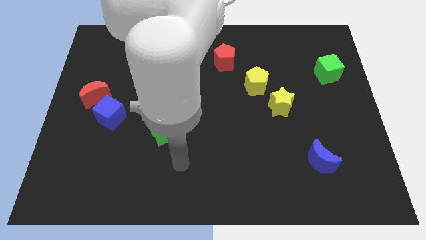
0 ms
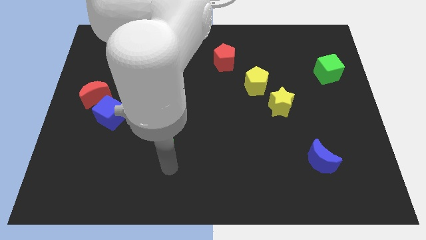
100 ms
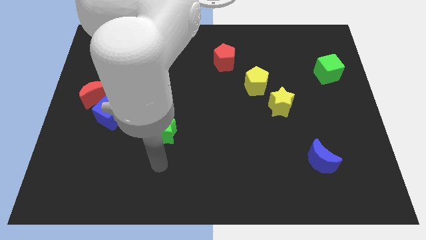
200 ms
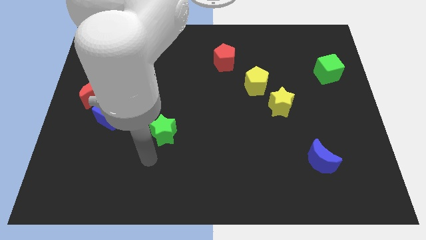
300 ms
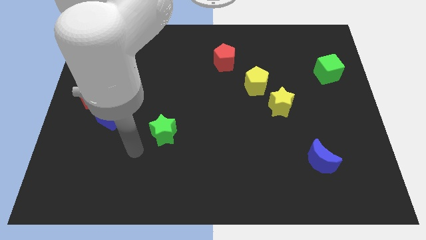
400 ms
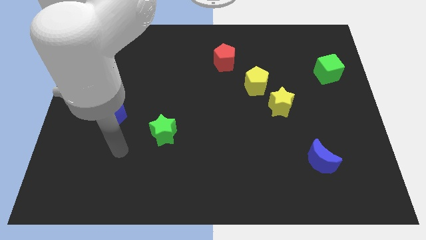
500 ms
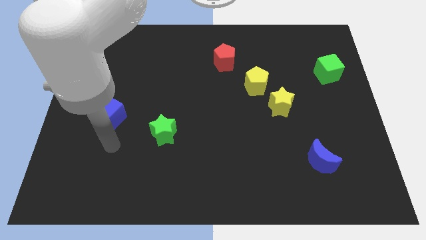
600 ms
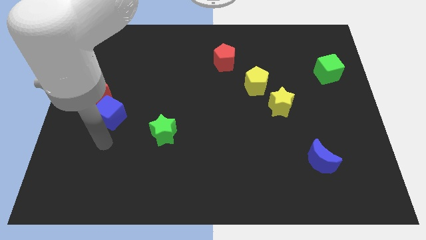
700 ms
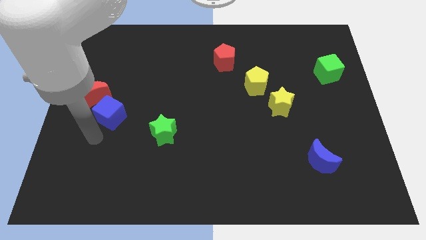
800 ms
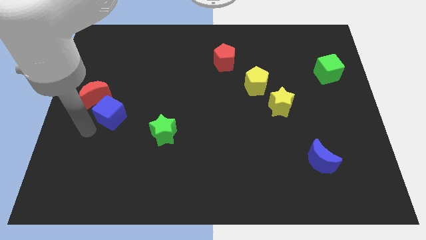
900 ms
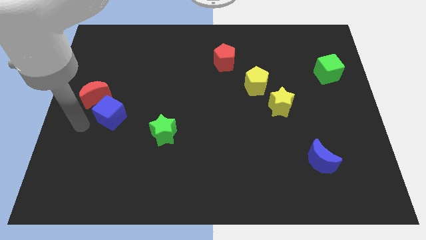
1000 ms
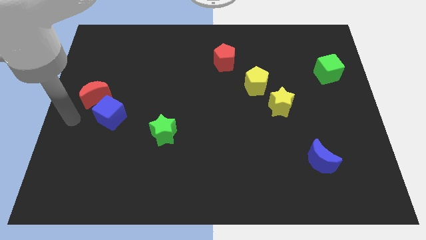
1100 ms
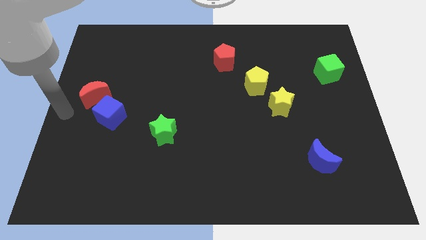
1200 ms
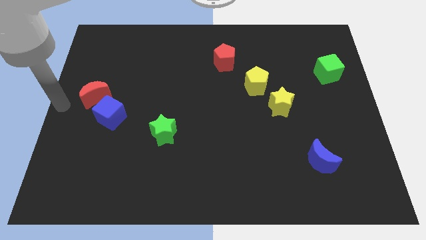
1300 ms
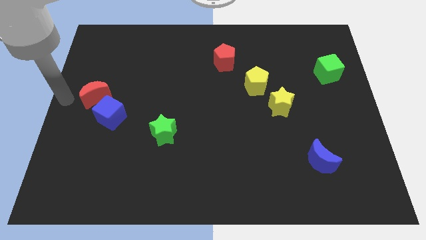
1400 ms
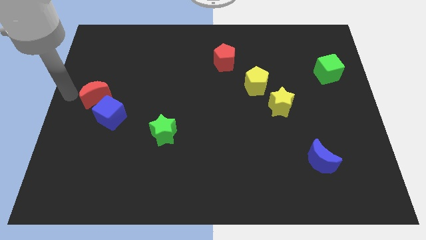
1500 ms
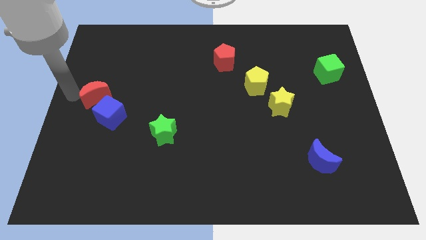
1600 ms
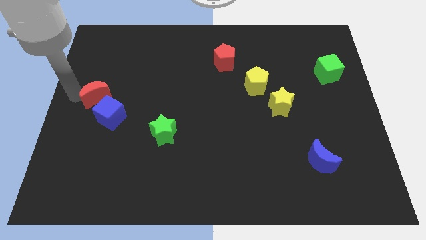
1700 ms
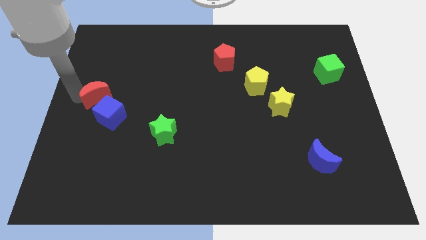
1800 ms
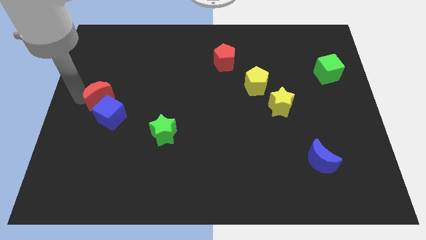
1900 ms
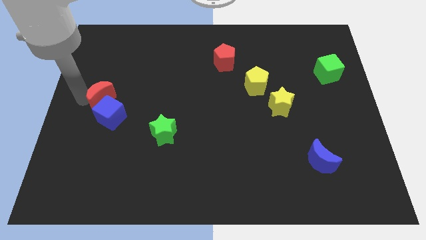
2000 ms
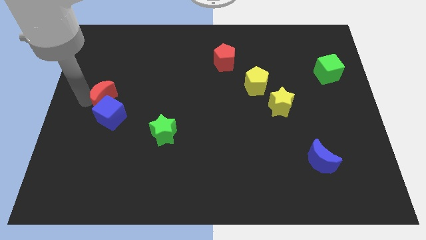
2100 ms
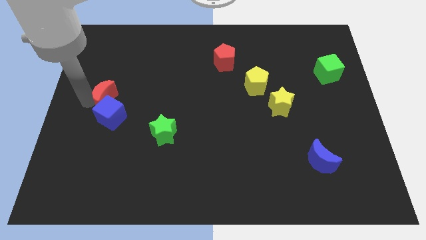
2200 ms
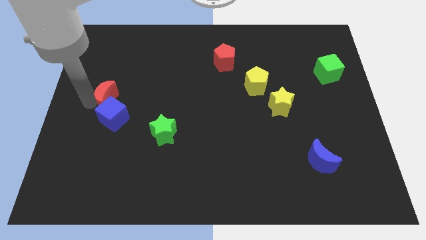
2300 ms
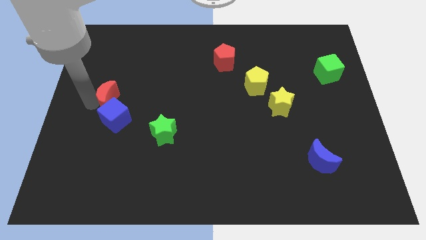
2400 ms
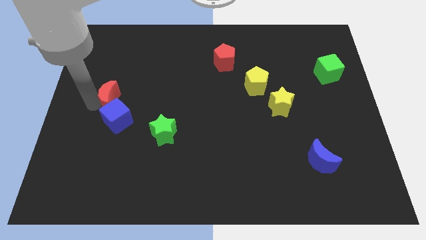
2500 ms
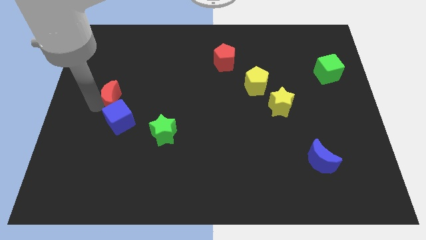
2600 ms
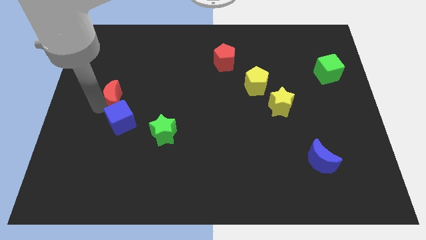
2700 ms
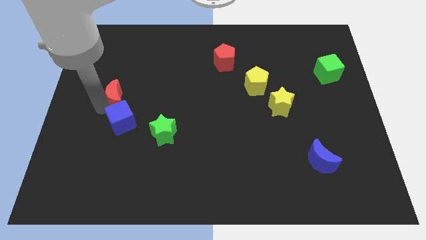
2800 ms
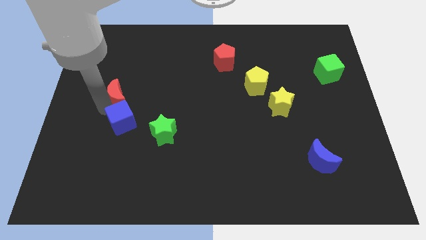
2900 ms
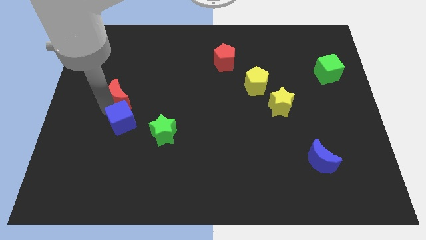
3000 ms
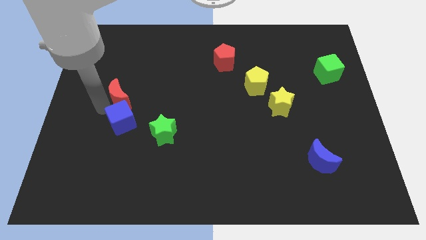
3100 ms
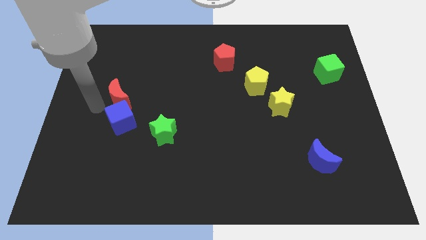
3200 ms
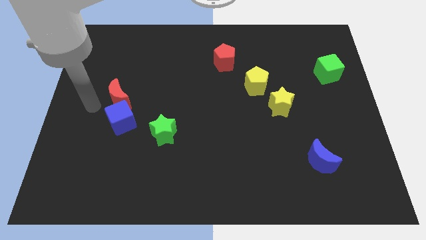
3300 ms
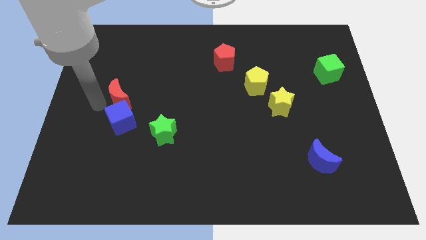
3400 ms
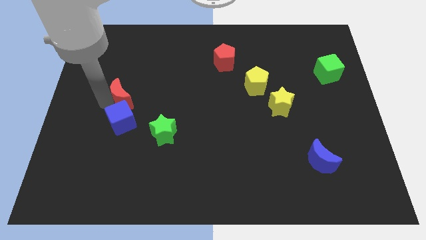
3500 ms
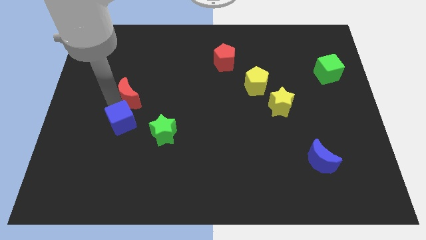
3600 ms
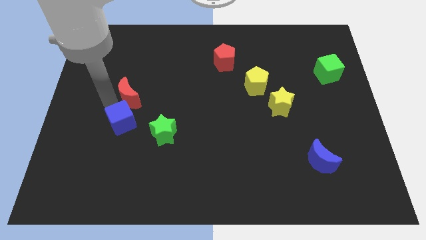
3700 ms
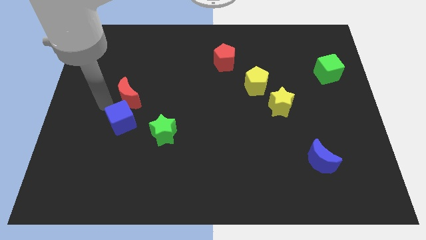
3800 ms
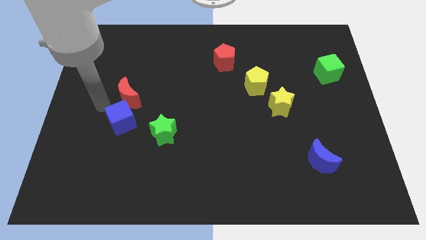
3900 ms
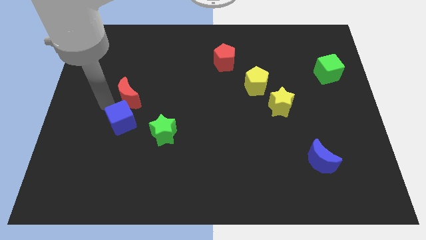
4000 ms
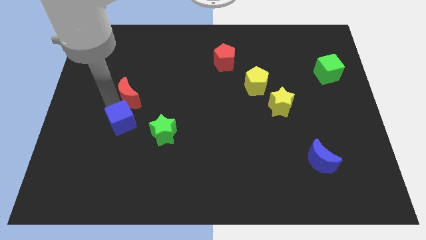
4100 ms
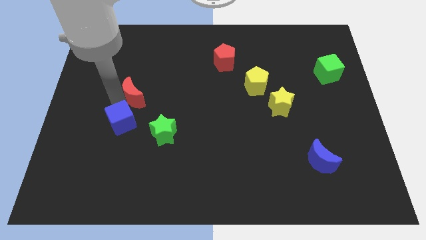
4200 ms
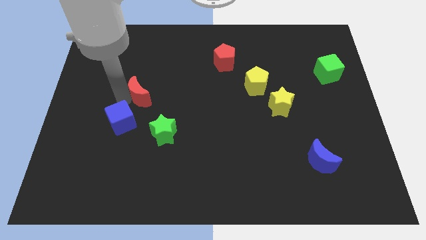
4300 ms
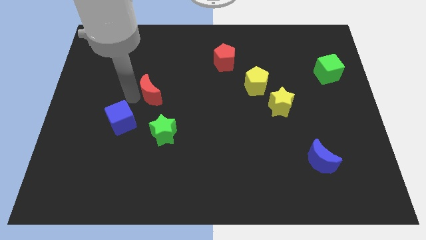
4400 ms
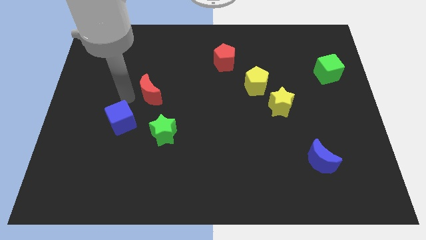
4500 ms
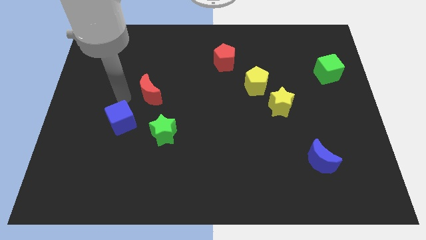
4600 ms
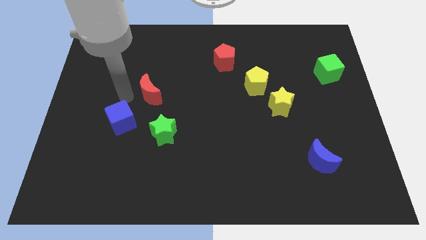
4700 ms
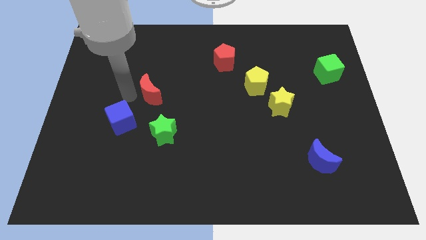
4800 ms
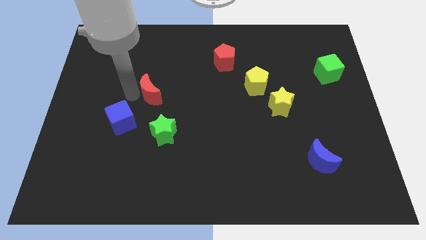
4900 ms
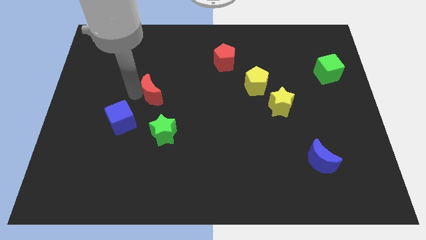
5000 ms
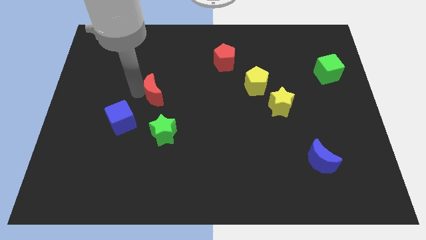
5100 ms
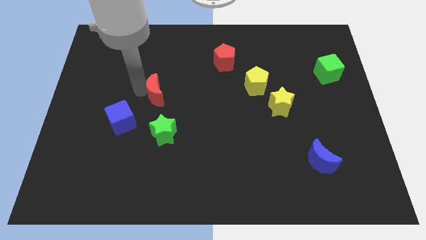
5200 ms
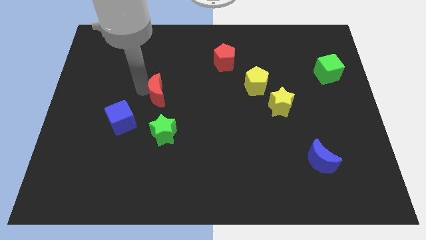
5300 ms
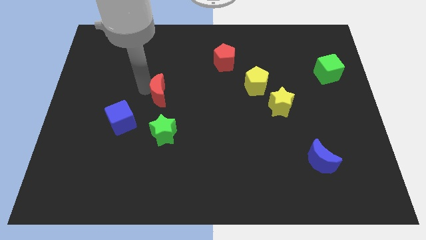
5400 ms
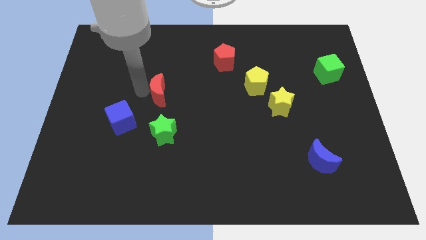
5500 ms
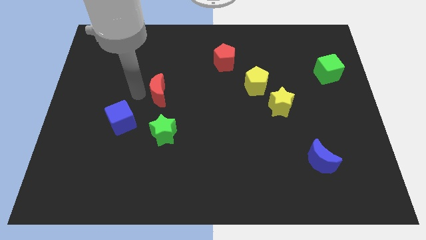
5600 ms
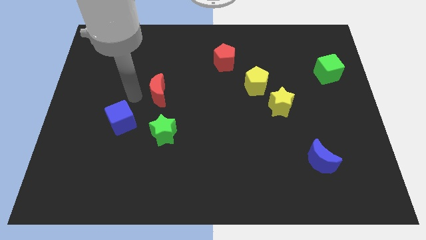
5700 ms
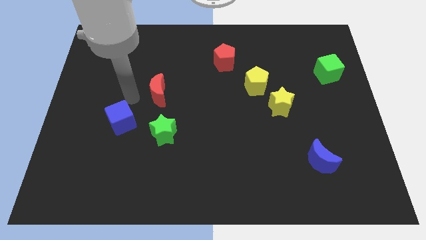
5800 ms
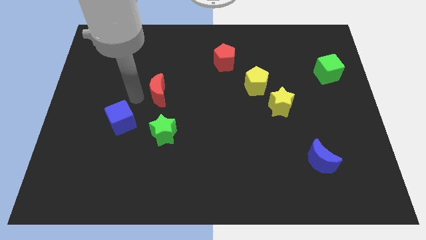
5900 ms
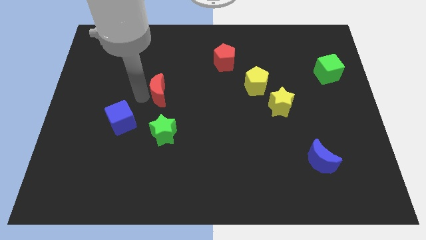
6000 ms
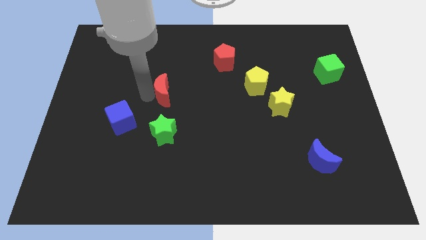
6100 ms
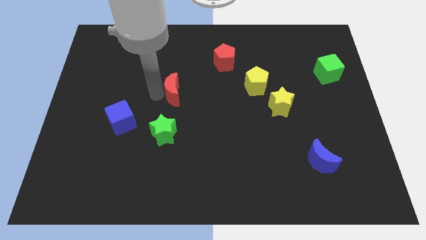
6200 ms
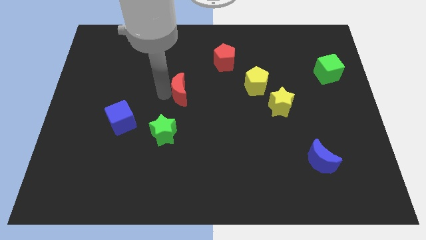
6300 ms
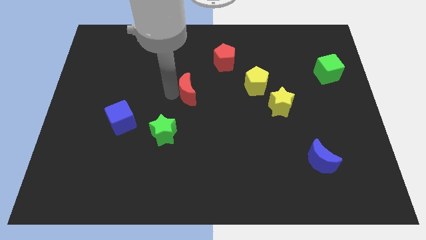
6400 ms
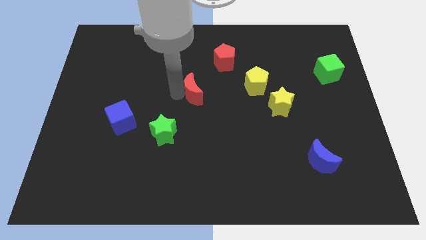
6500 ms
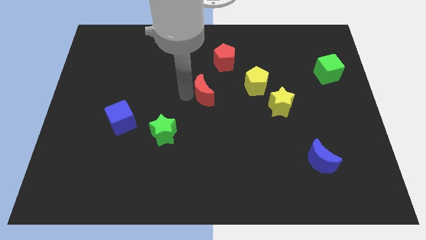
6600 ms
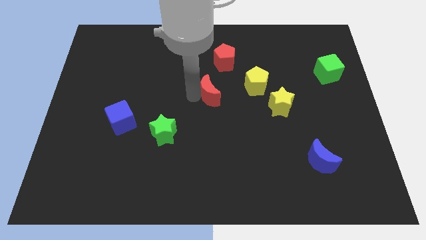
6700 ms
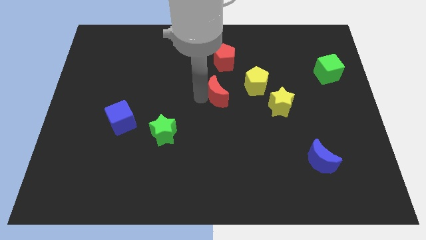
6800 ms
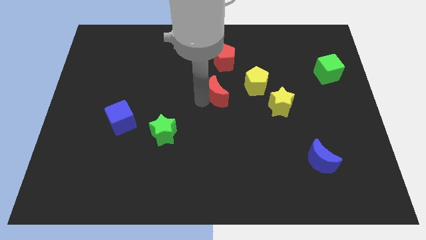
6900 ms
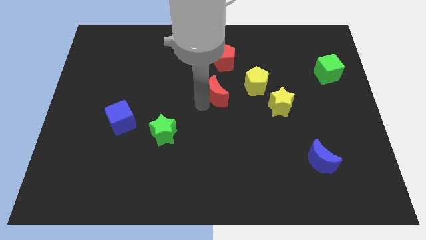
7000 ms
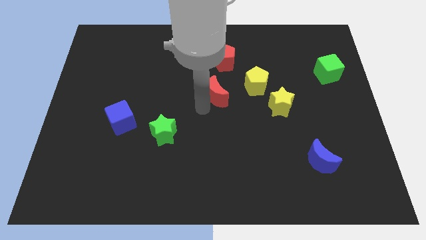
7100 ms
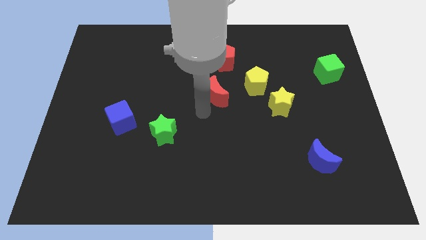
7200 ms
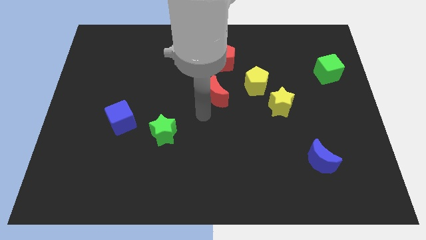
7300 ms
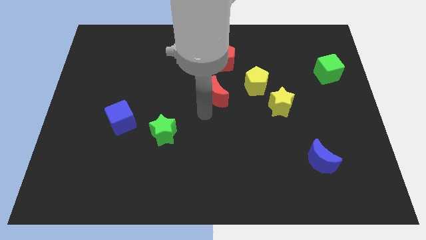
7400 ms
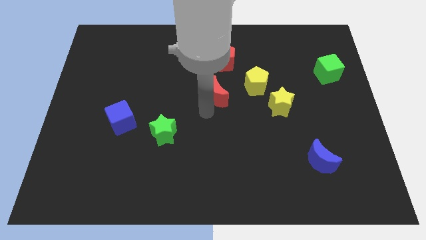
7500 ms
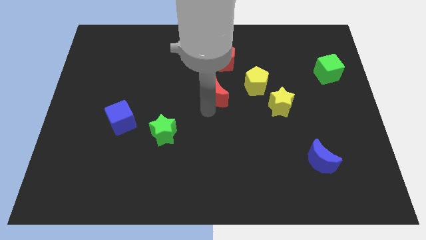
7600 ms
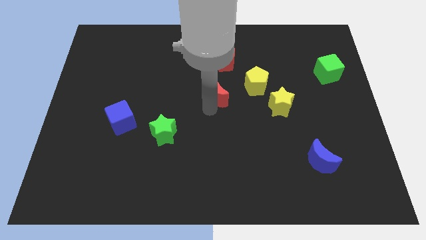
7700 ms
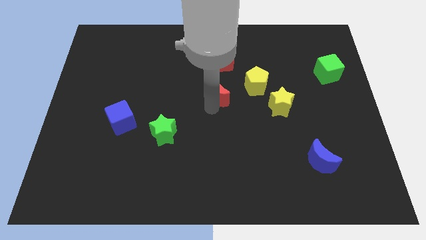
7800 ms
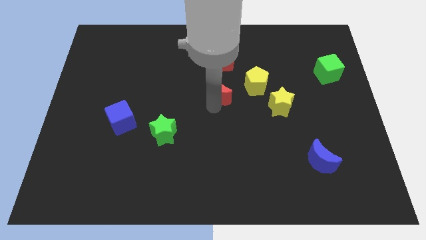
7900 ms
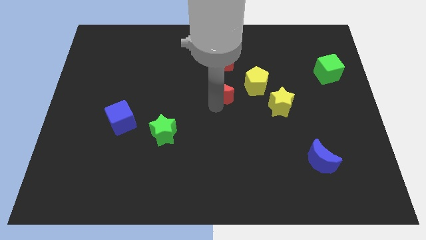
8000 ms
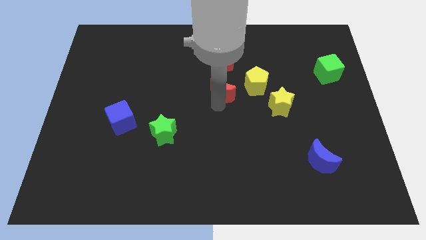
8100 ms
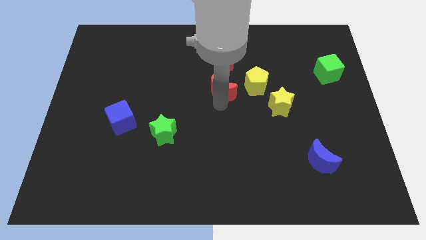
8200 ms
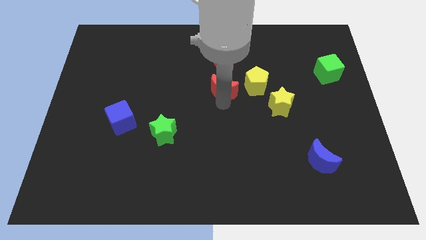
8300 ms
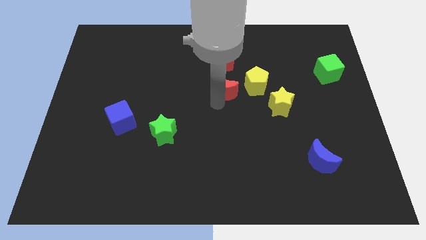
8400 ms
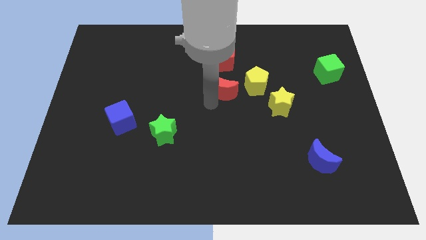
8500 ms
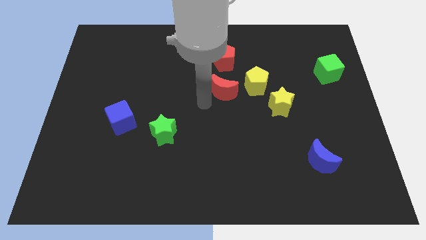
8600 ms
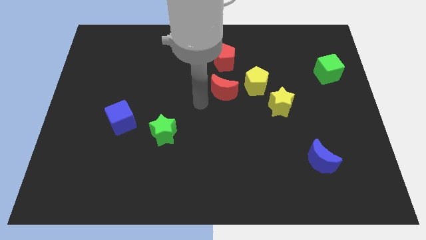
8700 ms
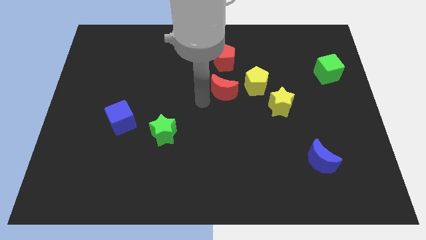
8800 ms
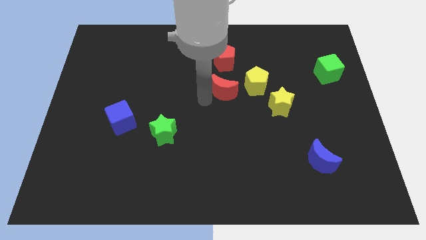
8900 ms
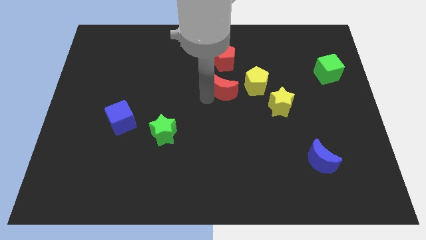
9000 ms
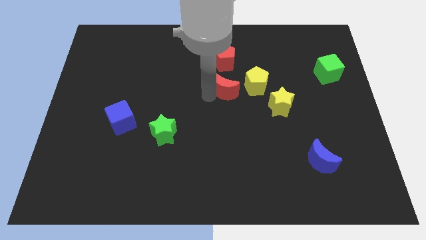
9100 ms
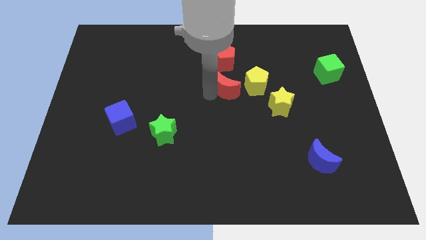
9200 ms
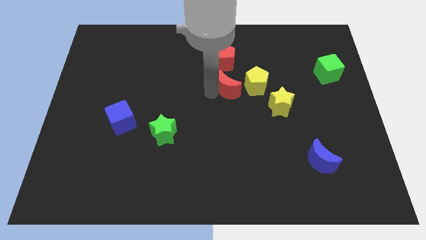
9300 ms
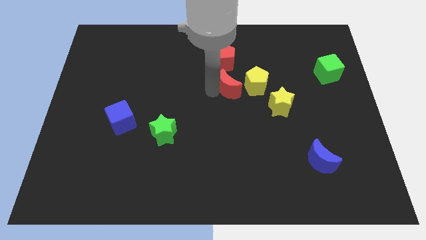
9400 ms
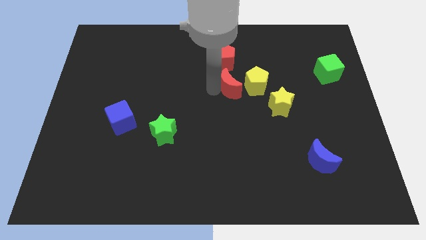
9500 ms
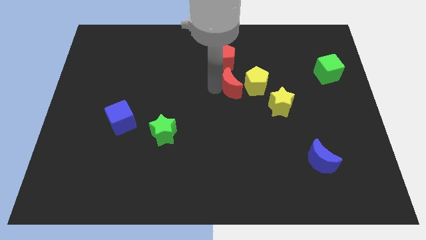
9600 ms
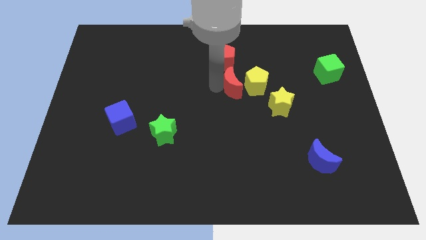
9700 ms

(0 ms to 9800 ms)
put the red moon next to the yellow pentagon
